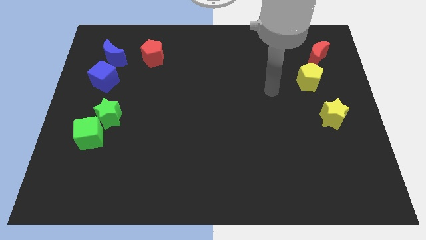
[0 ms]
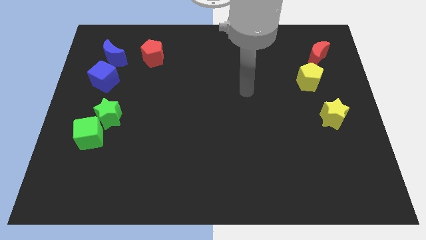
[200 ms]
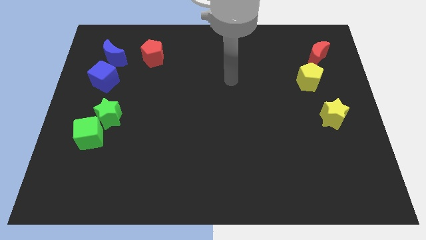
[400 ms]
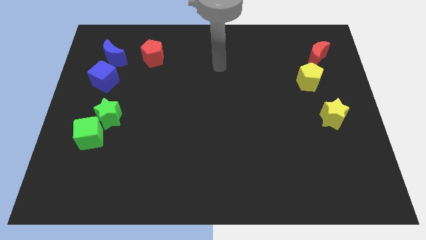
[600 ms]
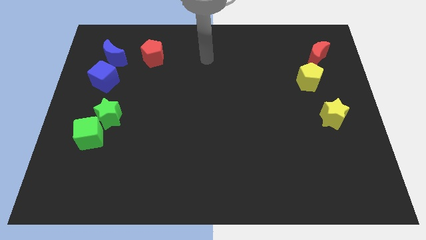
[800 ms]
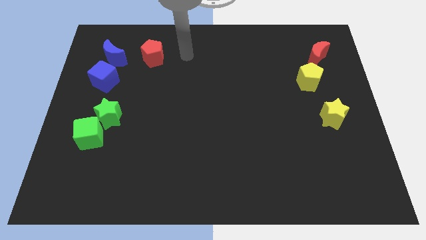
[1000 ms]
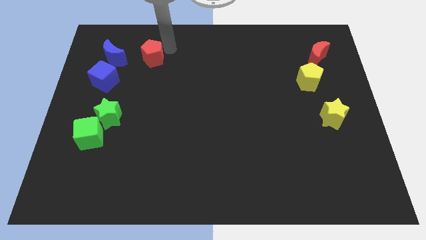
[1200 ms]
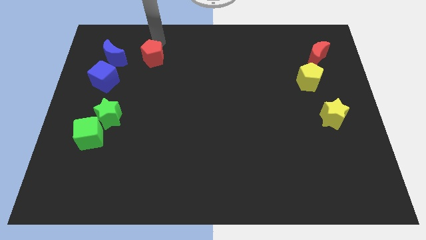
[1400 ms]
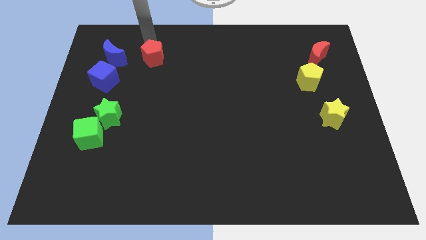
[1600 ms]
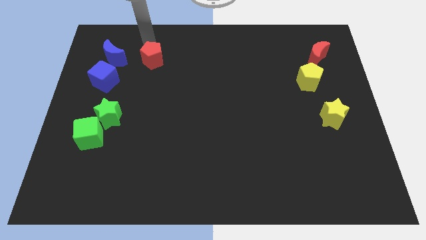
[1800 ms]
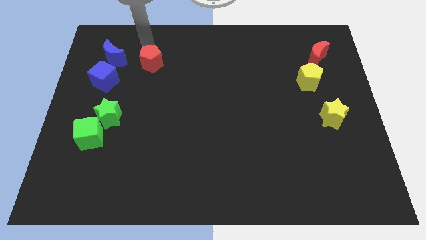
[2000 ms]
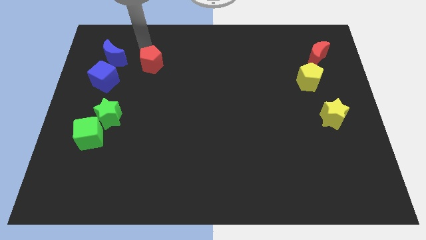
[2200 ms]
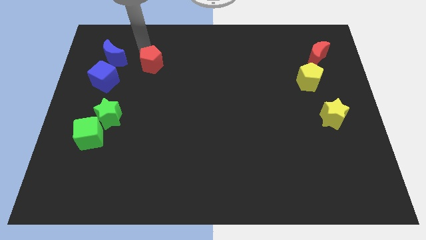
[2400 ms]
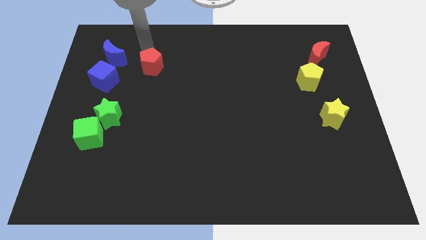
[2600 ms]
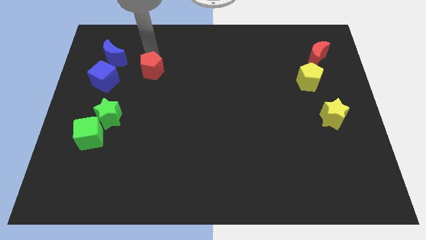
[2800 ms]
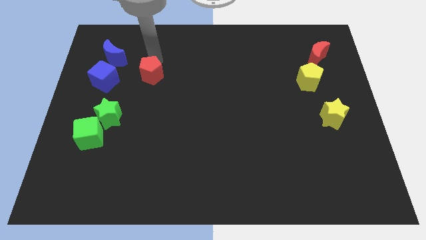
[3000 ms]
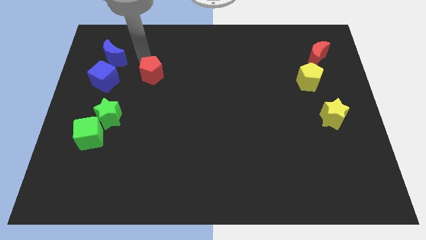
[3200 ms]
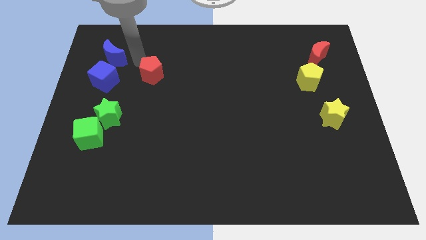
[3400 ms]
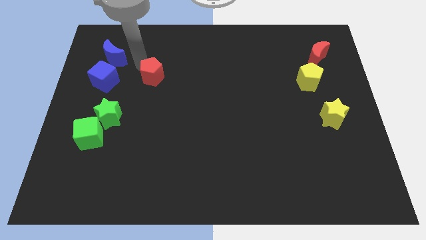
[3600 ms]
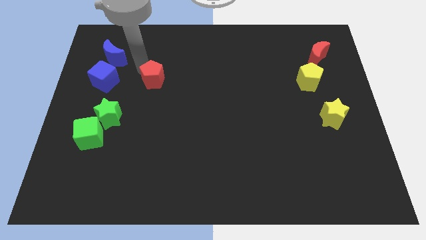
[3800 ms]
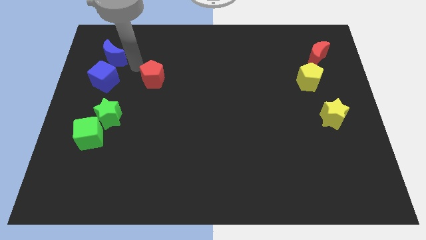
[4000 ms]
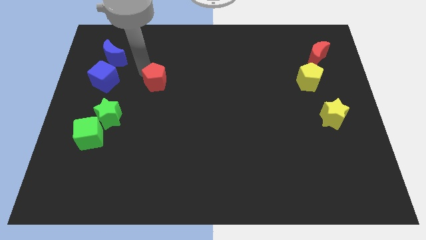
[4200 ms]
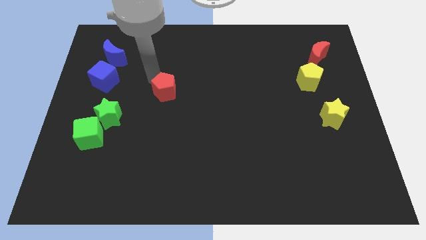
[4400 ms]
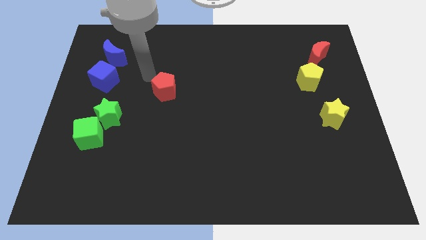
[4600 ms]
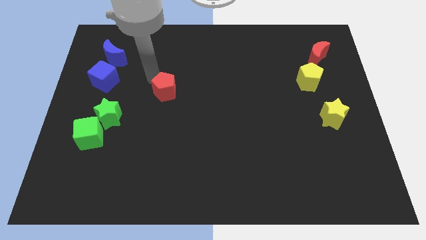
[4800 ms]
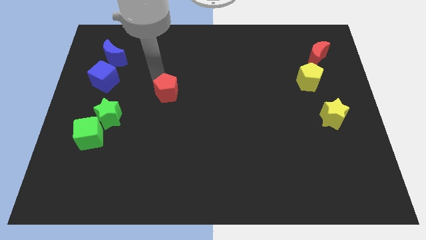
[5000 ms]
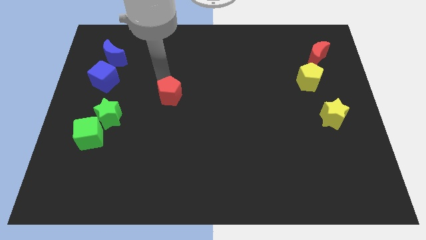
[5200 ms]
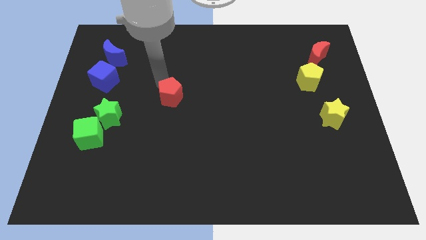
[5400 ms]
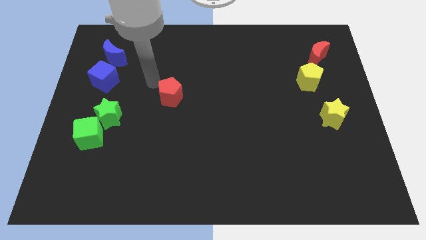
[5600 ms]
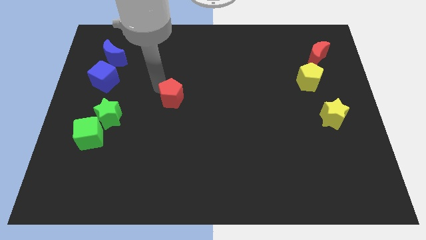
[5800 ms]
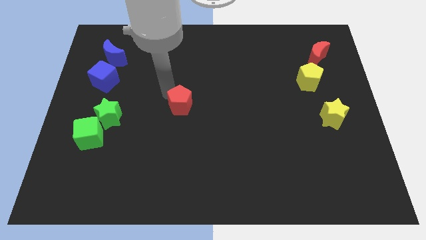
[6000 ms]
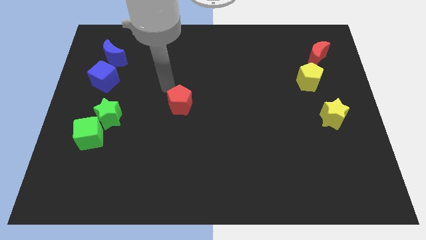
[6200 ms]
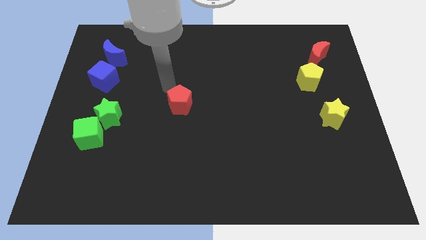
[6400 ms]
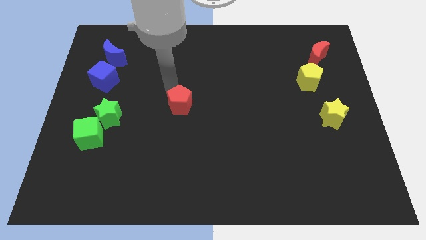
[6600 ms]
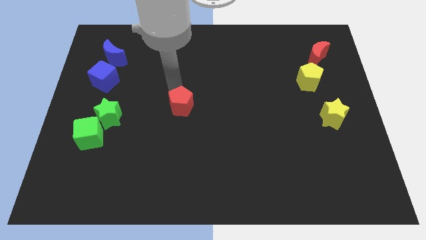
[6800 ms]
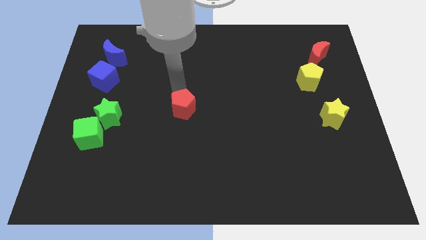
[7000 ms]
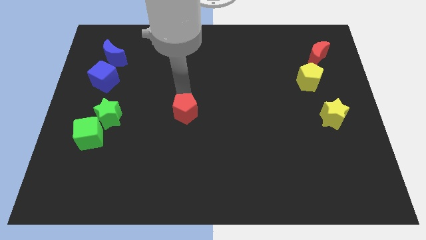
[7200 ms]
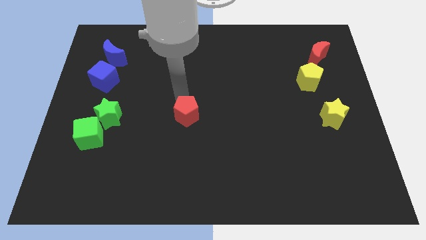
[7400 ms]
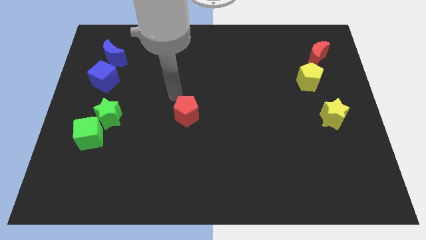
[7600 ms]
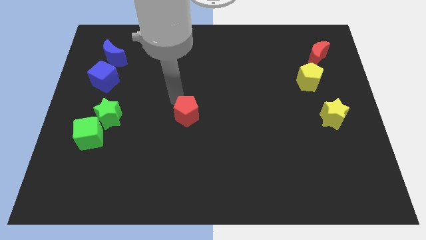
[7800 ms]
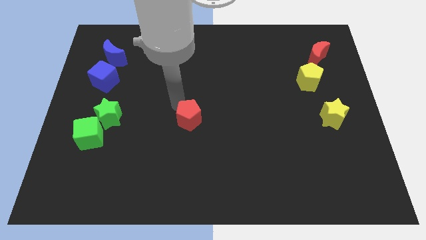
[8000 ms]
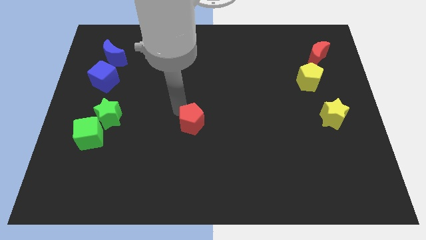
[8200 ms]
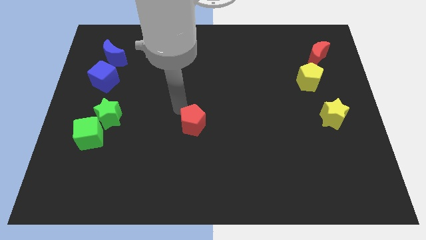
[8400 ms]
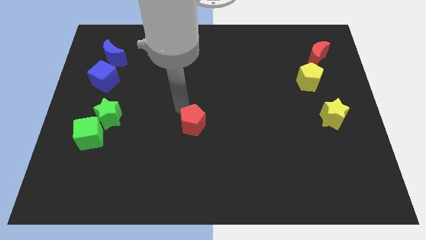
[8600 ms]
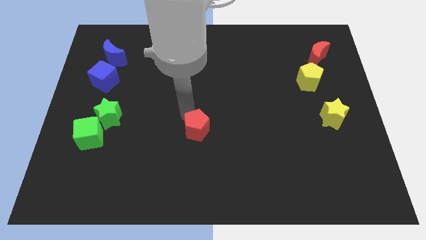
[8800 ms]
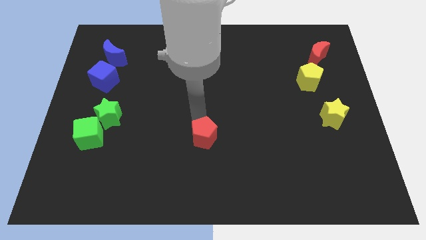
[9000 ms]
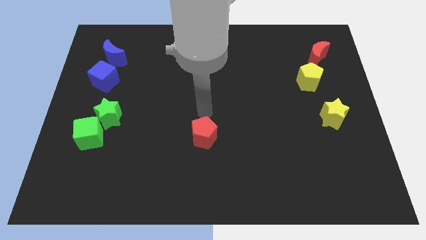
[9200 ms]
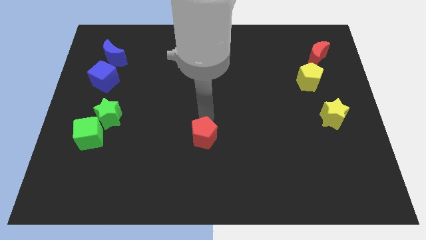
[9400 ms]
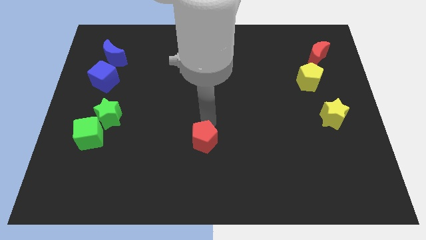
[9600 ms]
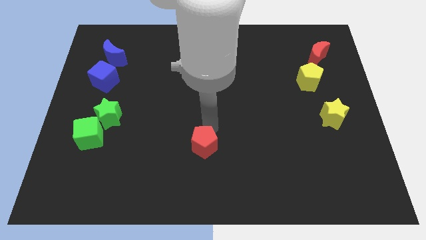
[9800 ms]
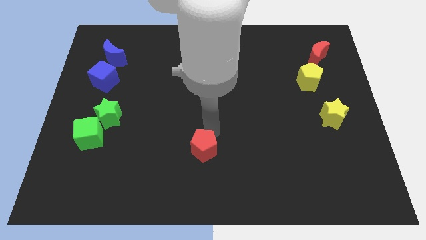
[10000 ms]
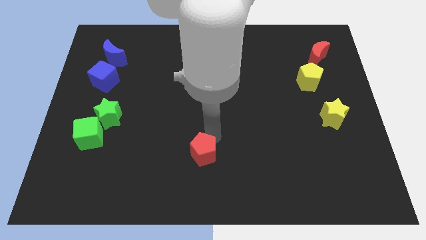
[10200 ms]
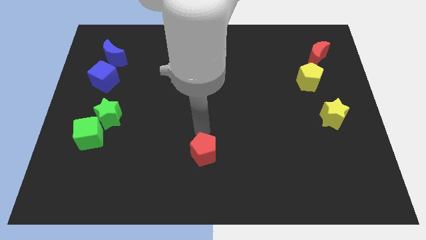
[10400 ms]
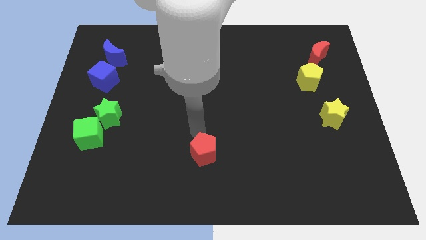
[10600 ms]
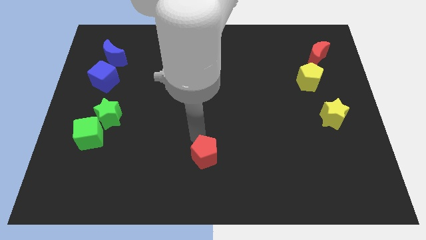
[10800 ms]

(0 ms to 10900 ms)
push the red pentagon to the bottom

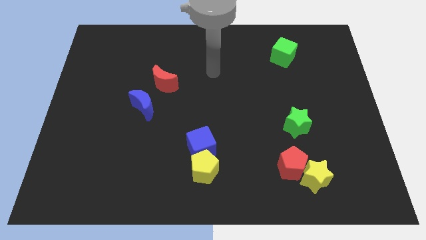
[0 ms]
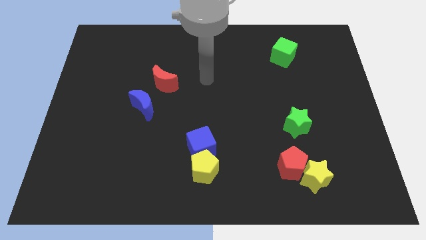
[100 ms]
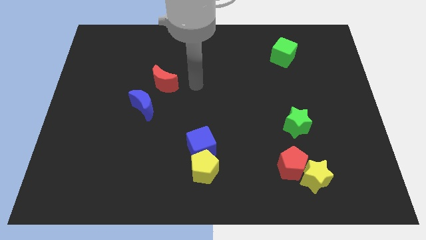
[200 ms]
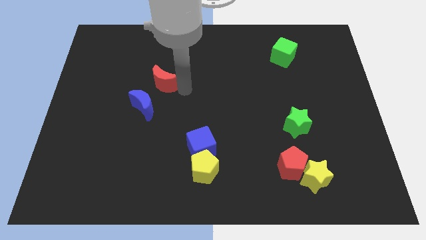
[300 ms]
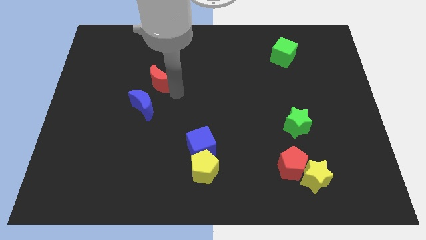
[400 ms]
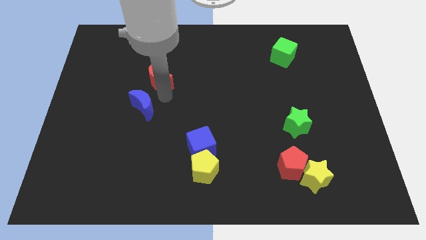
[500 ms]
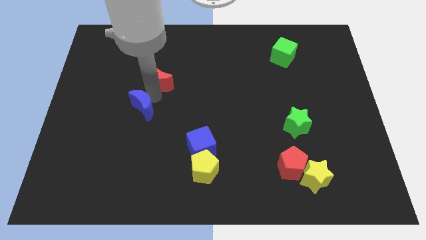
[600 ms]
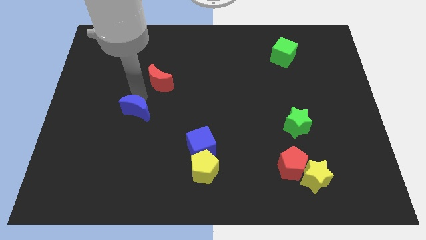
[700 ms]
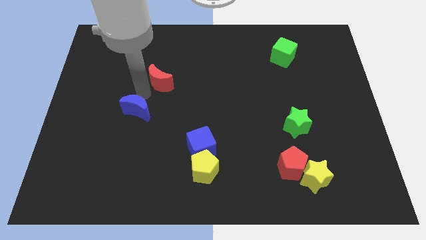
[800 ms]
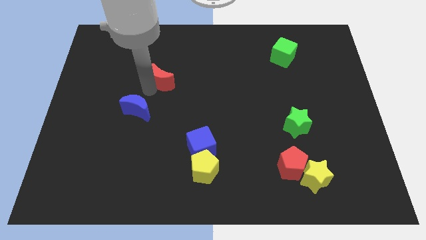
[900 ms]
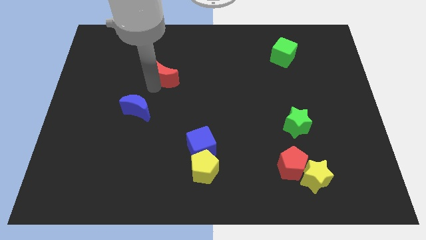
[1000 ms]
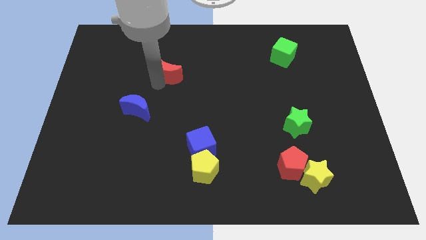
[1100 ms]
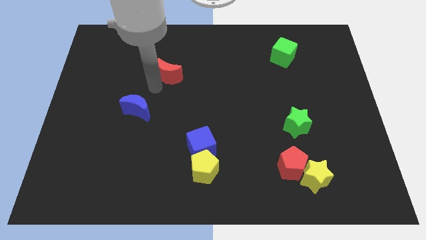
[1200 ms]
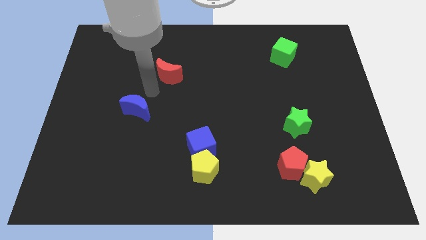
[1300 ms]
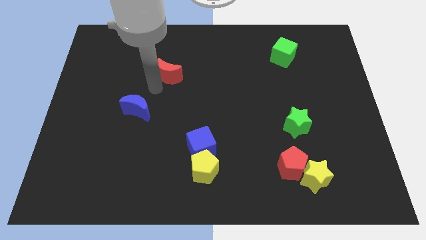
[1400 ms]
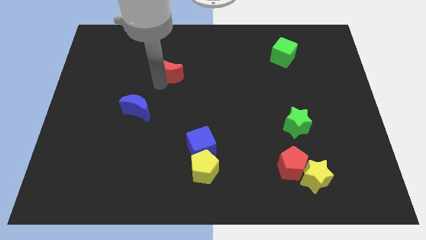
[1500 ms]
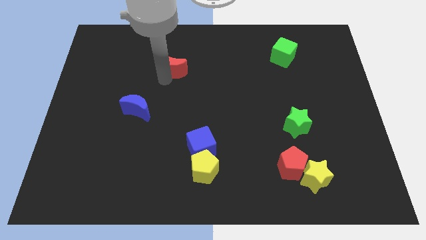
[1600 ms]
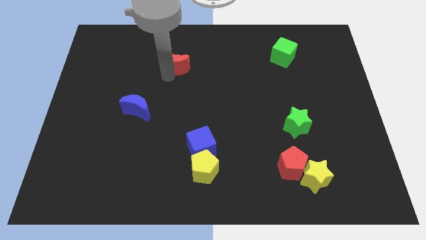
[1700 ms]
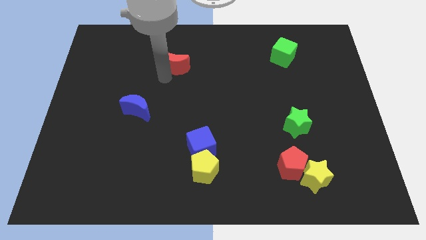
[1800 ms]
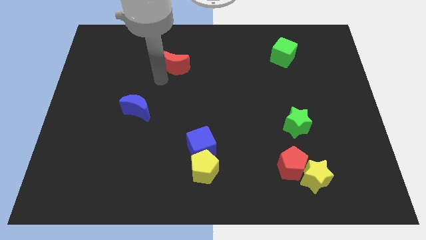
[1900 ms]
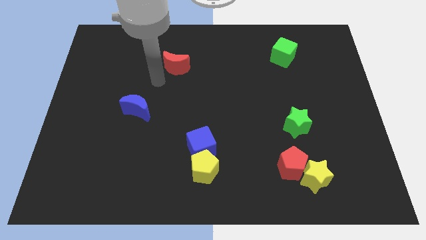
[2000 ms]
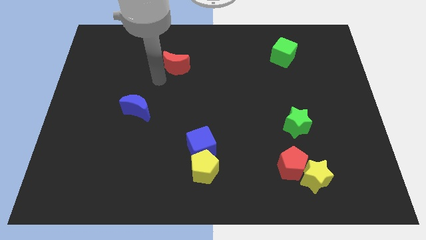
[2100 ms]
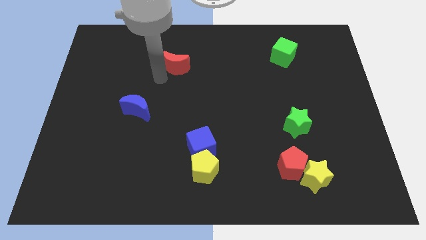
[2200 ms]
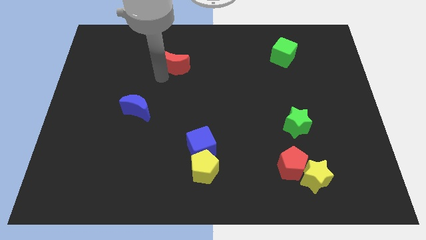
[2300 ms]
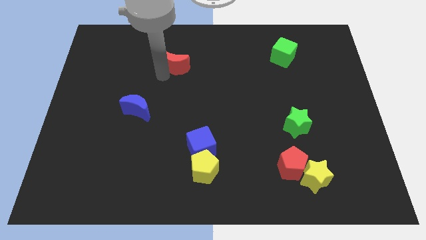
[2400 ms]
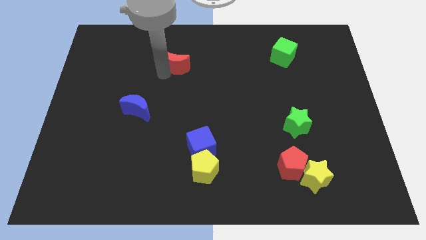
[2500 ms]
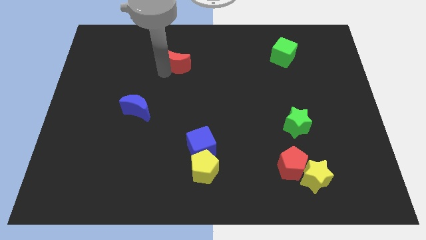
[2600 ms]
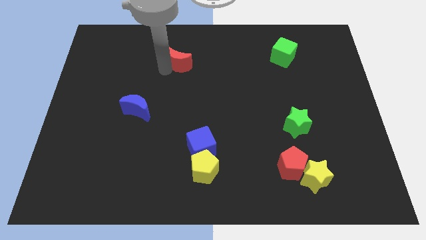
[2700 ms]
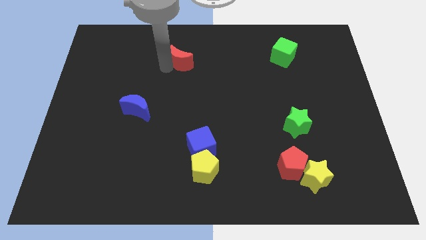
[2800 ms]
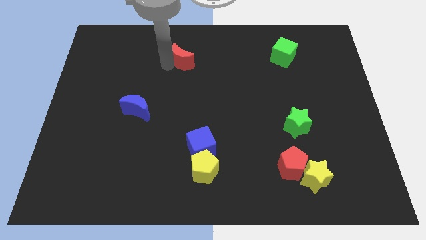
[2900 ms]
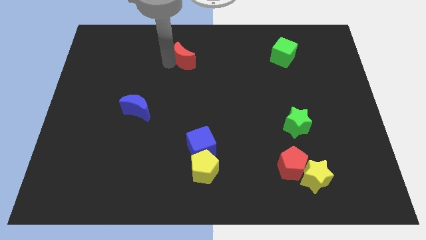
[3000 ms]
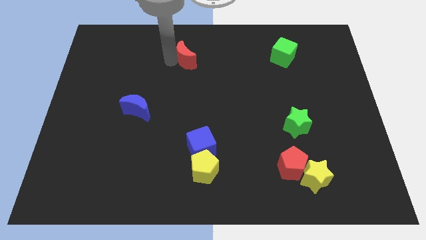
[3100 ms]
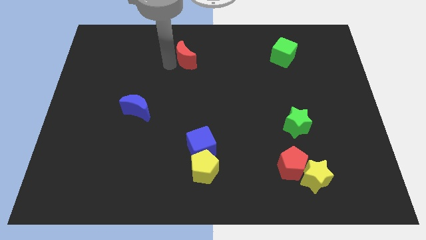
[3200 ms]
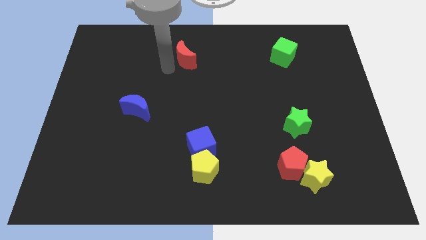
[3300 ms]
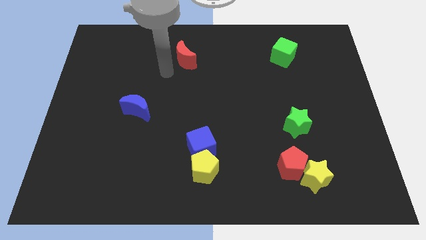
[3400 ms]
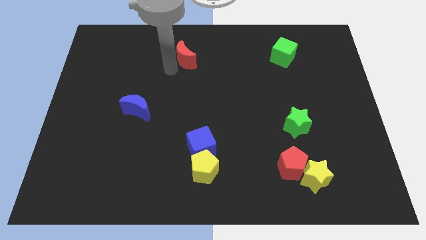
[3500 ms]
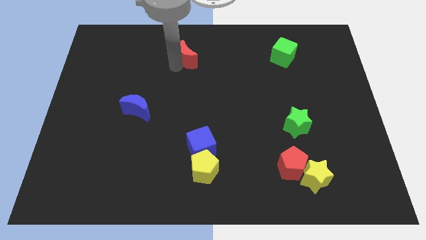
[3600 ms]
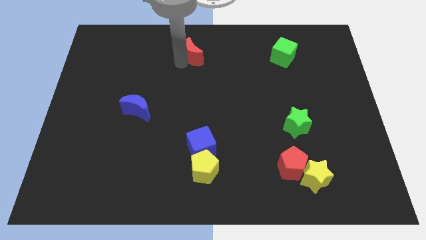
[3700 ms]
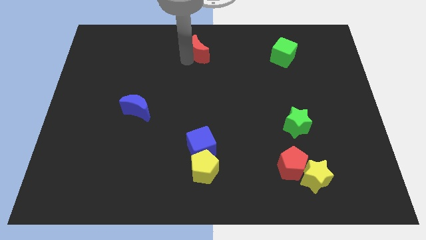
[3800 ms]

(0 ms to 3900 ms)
slide the red moon to the top
